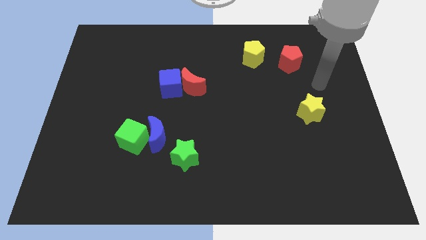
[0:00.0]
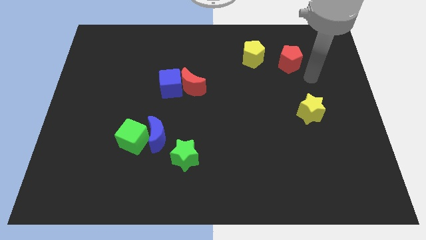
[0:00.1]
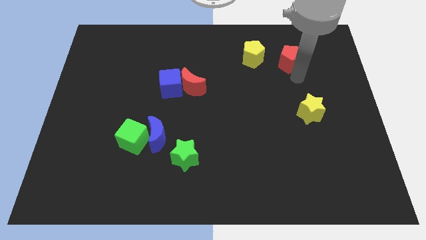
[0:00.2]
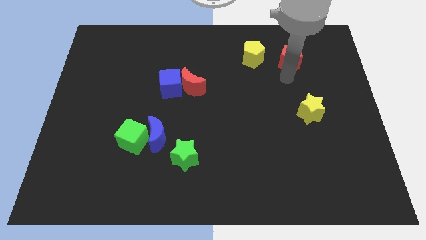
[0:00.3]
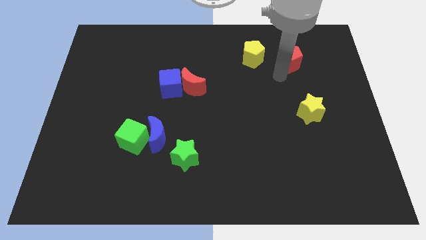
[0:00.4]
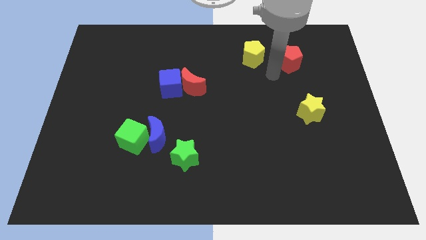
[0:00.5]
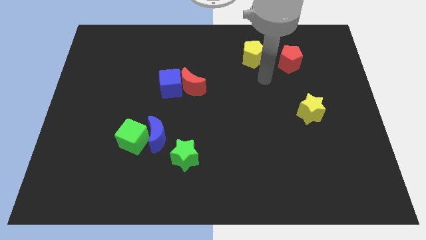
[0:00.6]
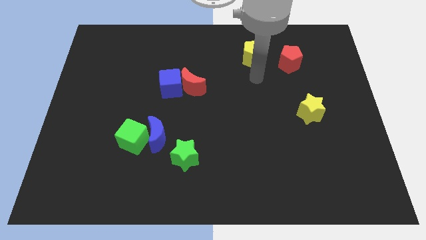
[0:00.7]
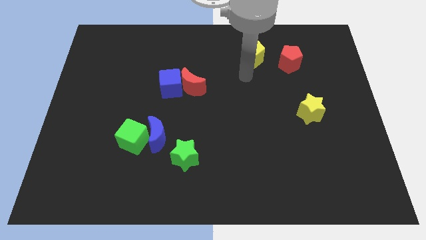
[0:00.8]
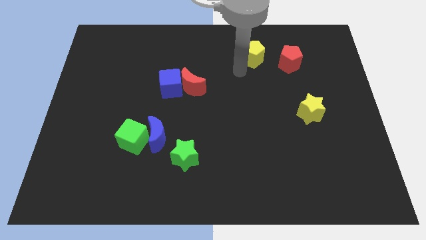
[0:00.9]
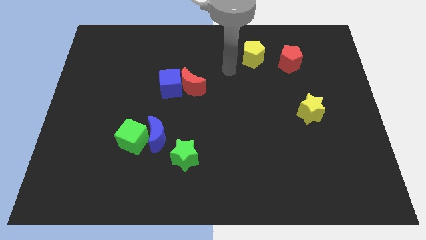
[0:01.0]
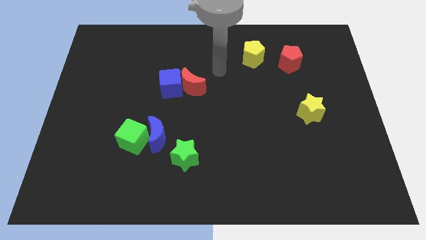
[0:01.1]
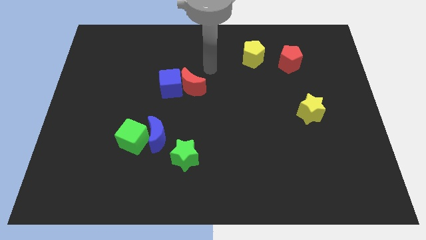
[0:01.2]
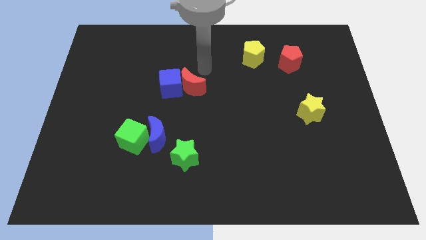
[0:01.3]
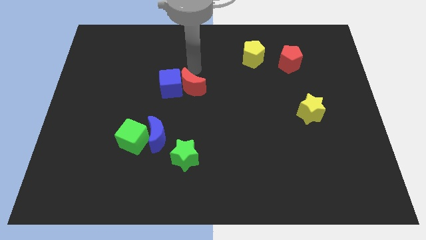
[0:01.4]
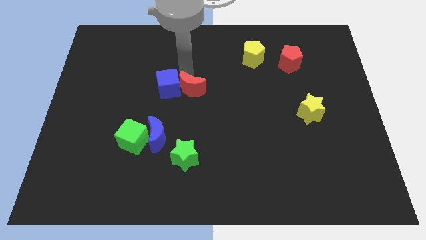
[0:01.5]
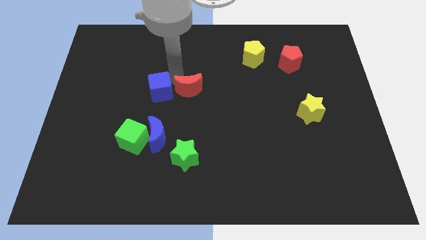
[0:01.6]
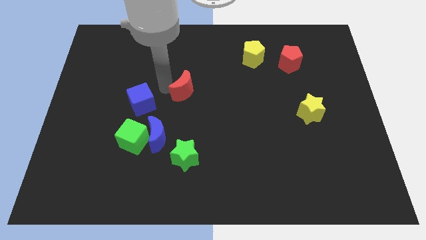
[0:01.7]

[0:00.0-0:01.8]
pull the red moon apart from the blue cube

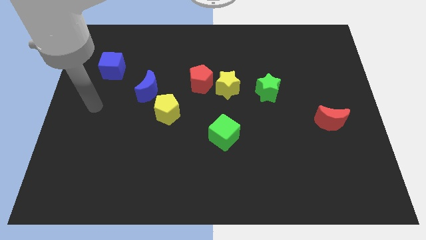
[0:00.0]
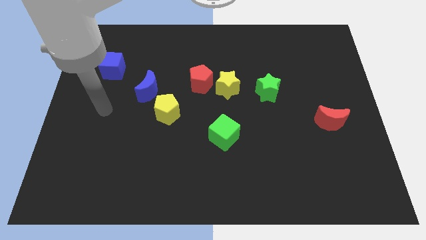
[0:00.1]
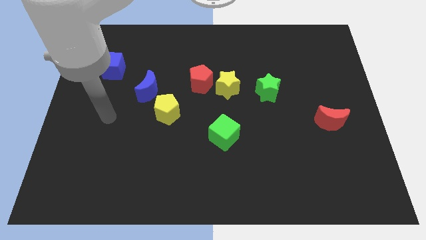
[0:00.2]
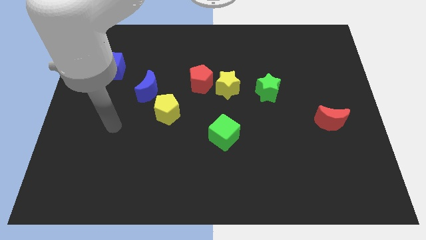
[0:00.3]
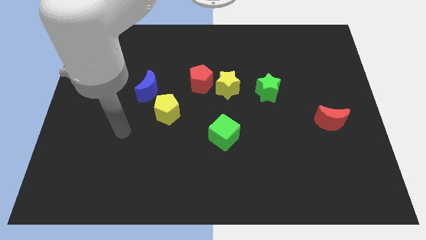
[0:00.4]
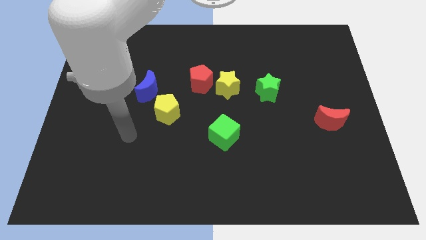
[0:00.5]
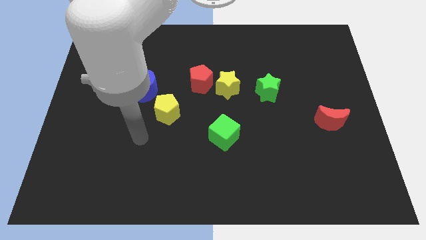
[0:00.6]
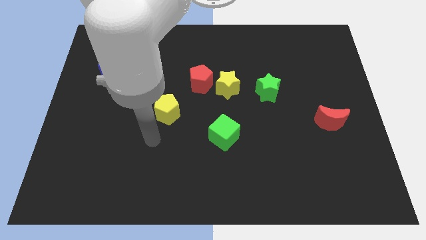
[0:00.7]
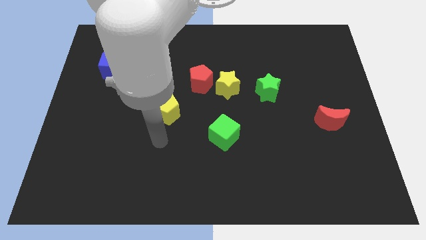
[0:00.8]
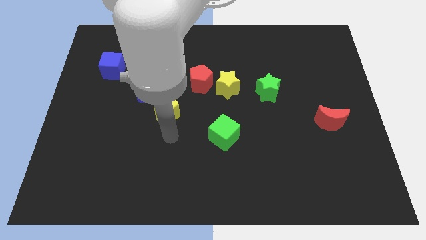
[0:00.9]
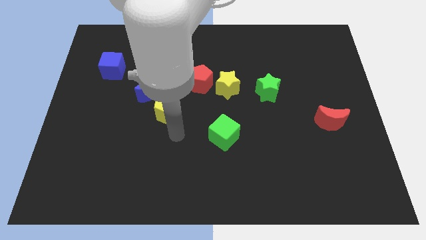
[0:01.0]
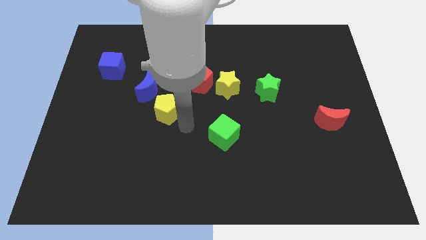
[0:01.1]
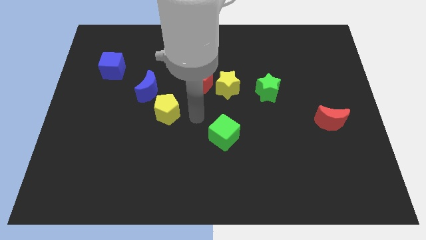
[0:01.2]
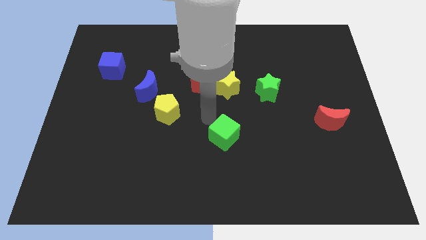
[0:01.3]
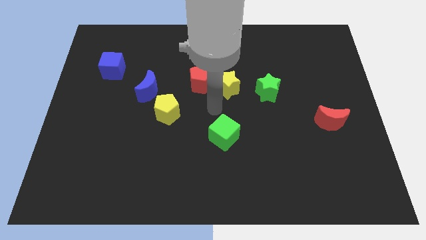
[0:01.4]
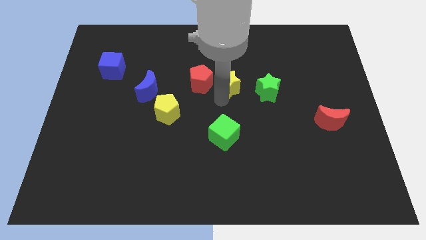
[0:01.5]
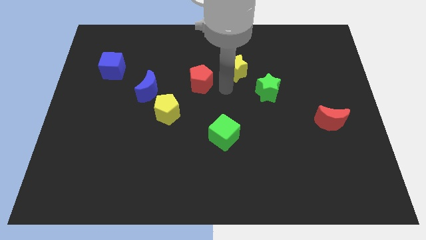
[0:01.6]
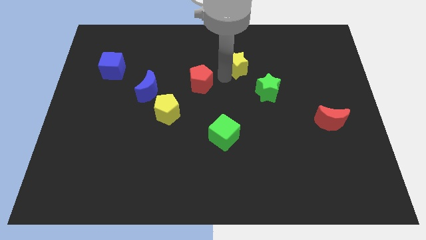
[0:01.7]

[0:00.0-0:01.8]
move the red pentagon away from the yellow star

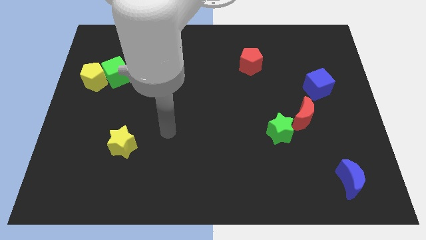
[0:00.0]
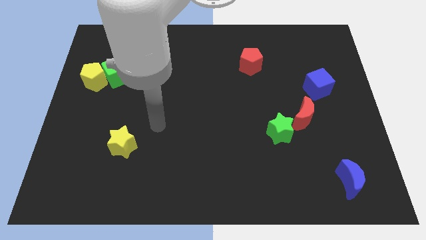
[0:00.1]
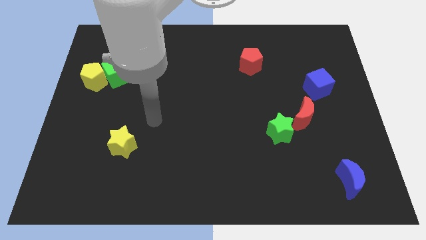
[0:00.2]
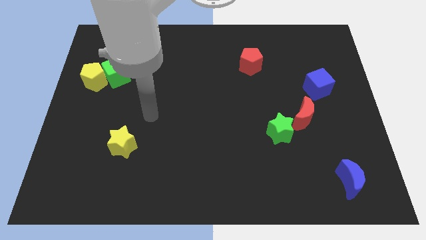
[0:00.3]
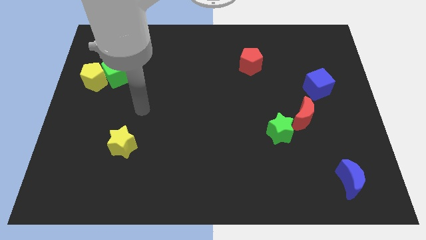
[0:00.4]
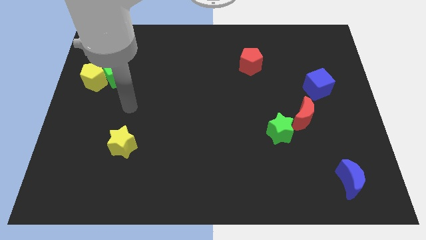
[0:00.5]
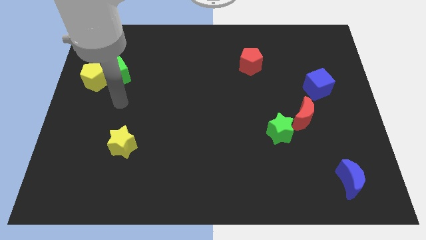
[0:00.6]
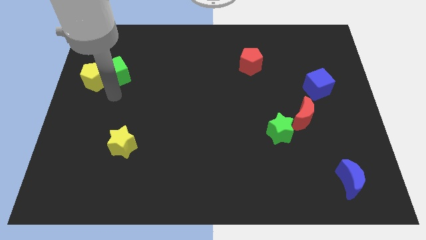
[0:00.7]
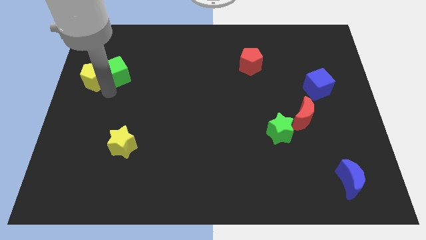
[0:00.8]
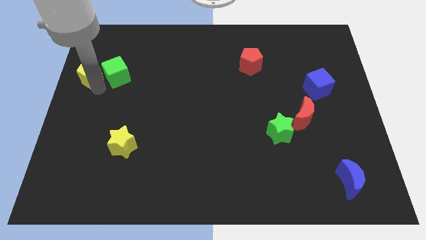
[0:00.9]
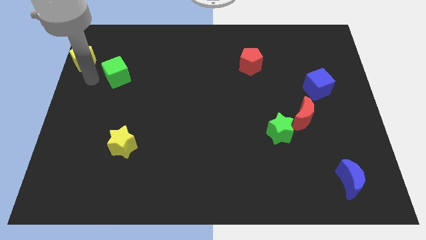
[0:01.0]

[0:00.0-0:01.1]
separate the green cube from the yellow pentagon

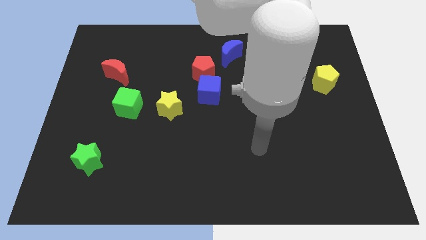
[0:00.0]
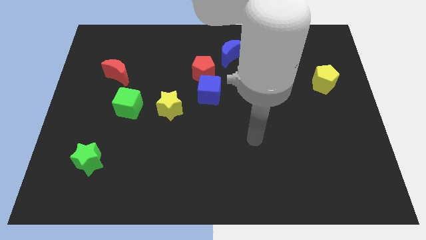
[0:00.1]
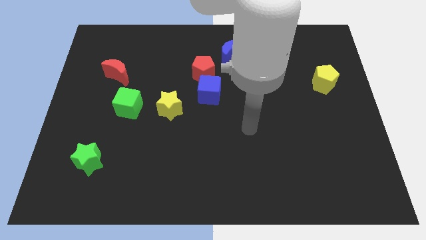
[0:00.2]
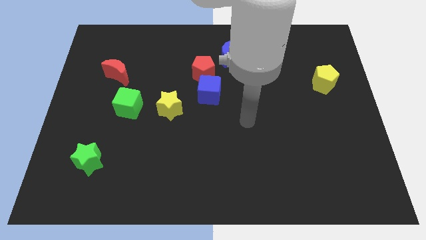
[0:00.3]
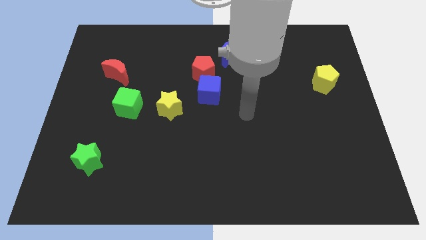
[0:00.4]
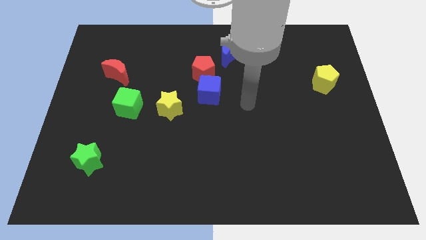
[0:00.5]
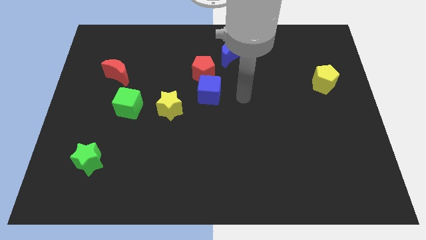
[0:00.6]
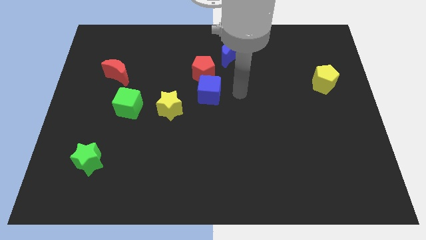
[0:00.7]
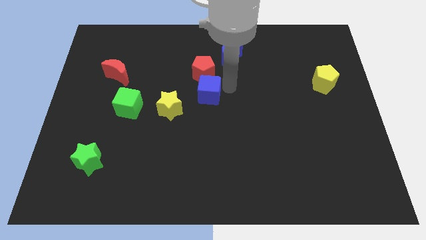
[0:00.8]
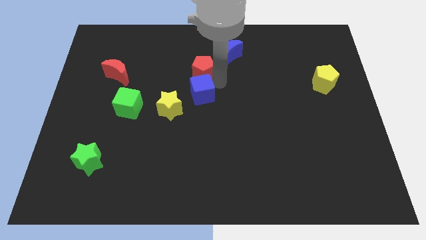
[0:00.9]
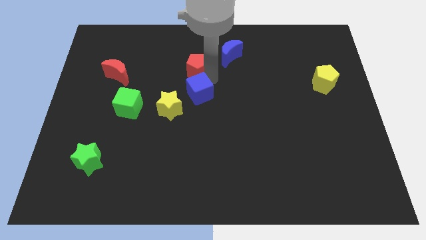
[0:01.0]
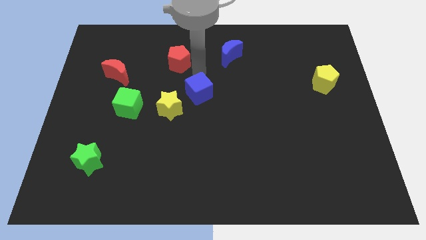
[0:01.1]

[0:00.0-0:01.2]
separate the blue cube from the red pentagon

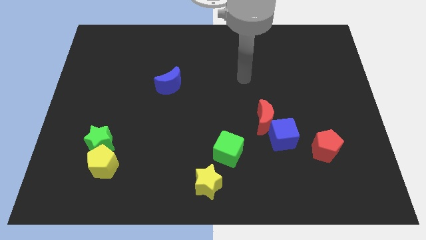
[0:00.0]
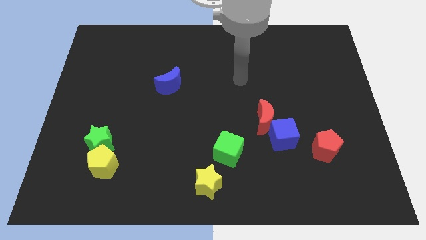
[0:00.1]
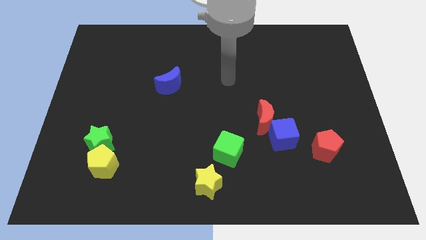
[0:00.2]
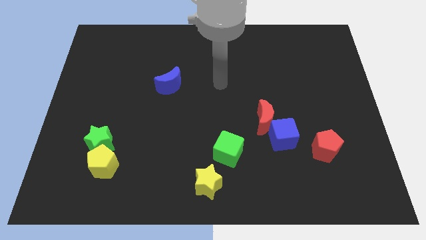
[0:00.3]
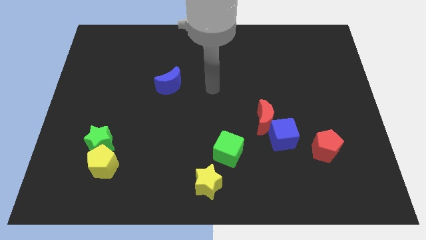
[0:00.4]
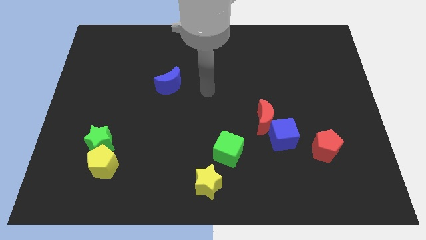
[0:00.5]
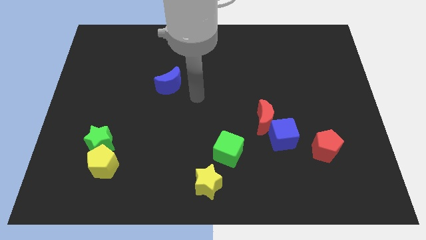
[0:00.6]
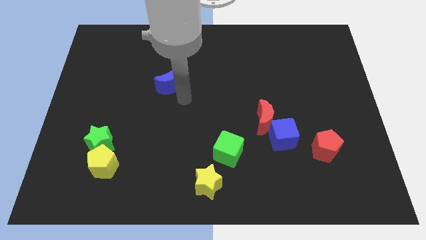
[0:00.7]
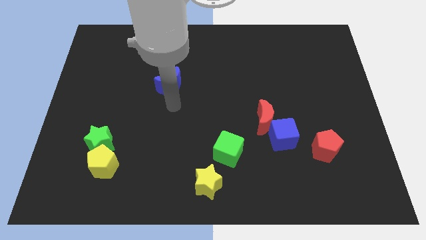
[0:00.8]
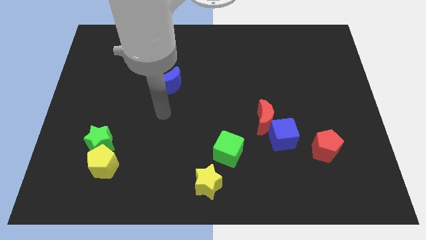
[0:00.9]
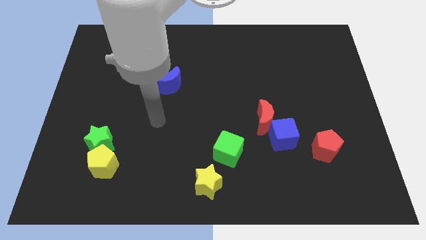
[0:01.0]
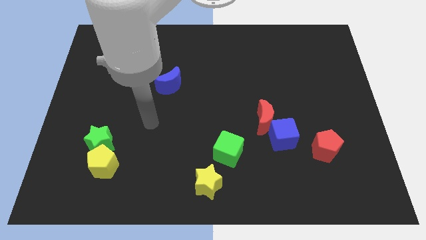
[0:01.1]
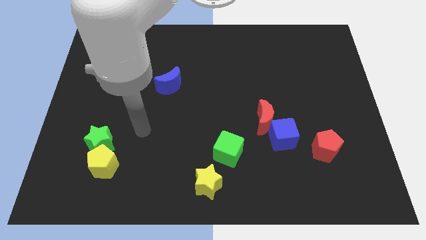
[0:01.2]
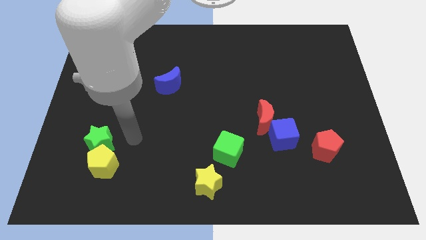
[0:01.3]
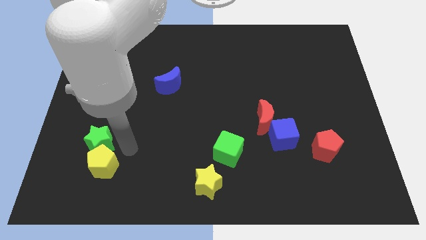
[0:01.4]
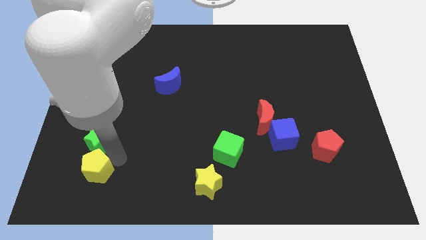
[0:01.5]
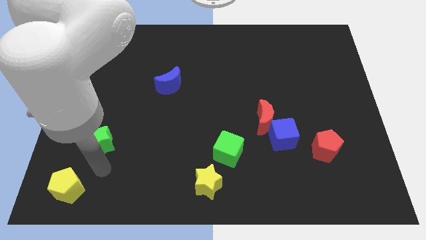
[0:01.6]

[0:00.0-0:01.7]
move the green star away from the yellow pentagon

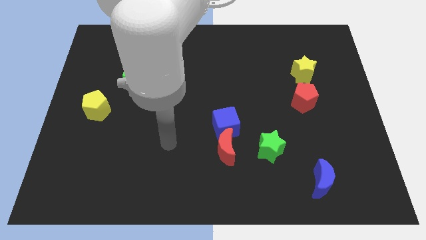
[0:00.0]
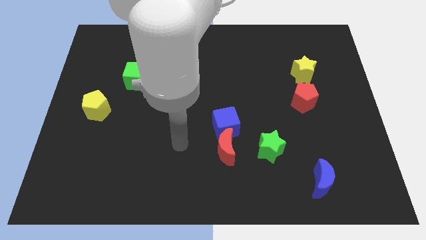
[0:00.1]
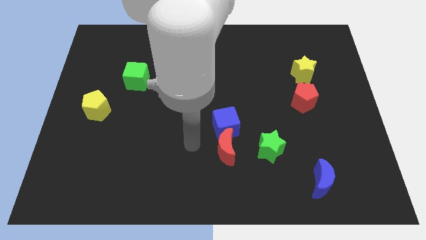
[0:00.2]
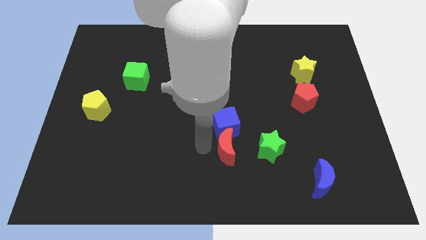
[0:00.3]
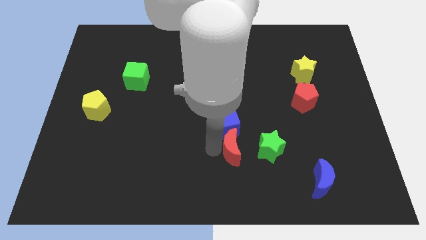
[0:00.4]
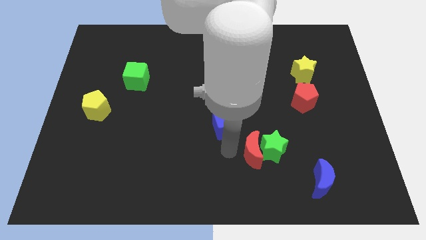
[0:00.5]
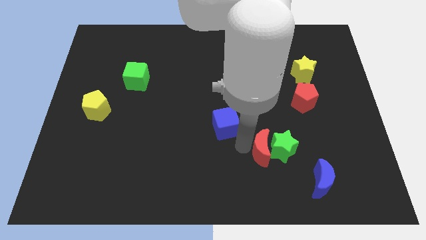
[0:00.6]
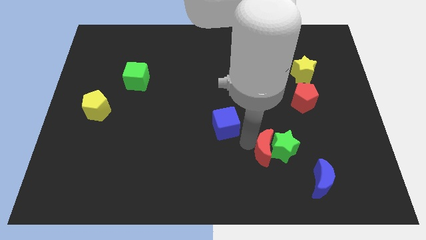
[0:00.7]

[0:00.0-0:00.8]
pull the blue cube apart from the red moon

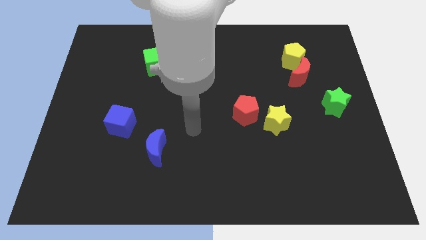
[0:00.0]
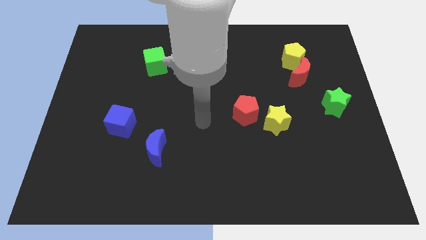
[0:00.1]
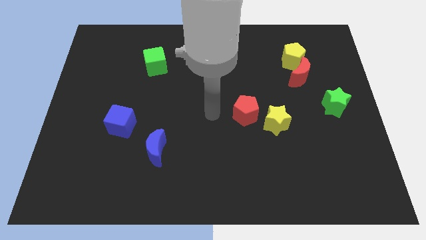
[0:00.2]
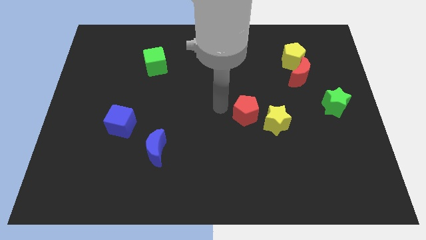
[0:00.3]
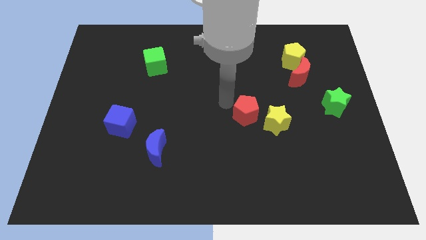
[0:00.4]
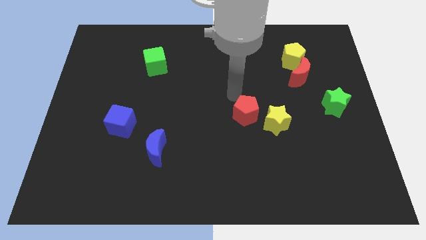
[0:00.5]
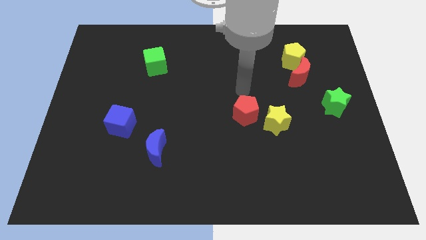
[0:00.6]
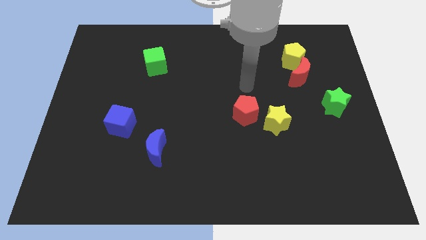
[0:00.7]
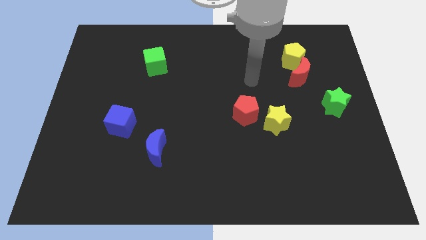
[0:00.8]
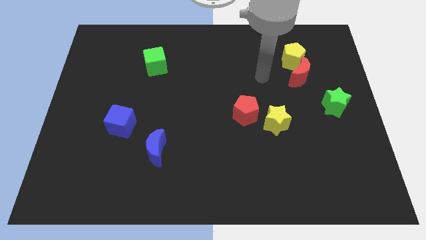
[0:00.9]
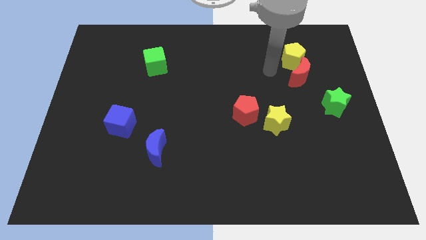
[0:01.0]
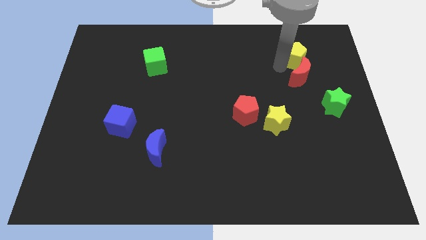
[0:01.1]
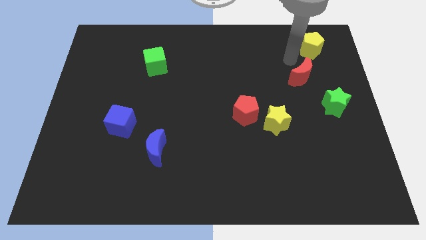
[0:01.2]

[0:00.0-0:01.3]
pull the red moon apart from the yellow pentagon
